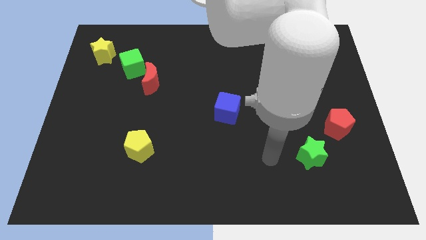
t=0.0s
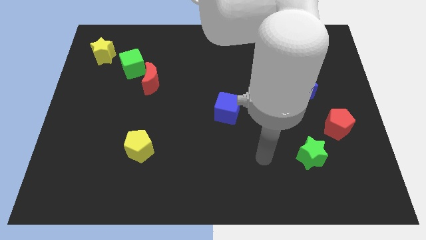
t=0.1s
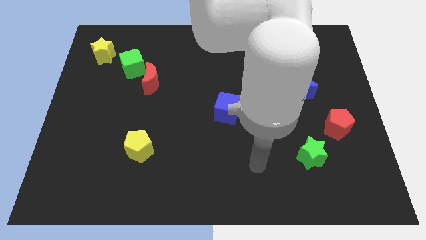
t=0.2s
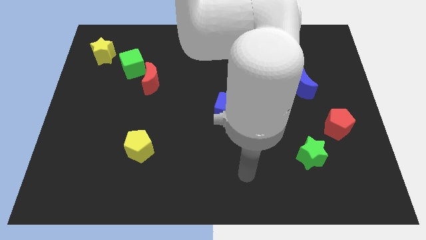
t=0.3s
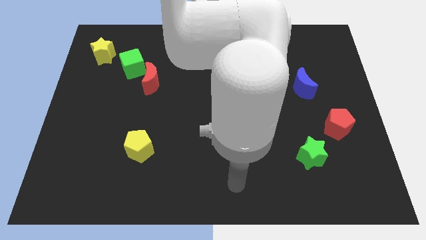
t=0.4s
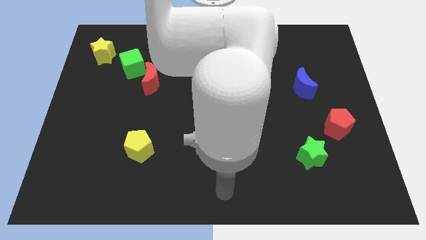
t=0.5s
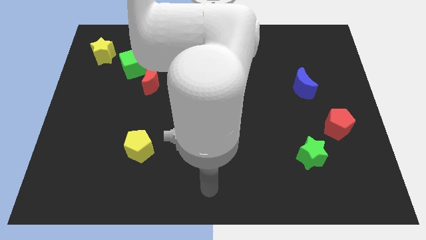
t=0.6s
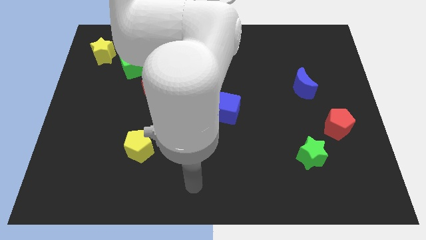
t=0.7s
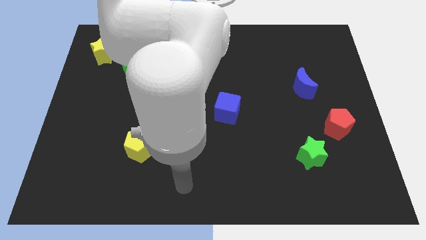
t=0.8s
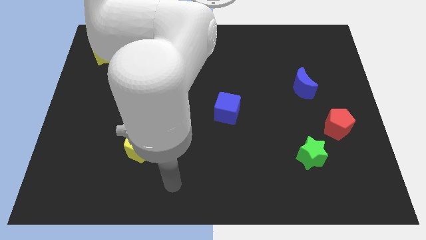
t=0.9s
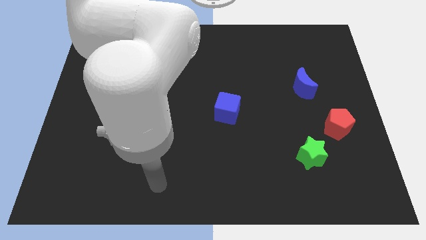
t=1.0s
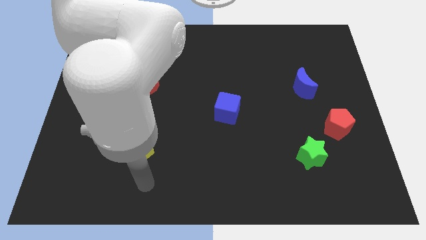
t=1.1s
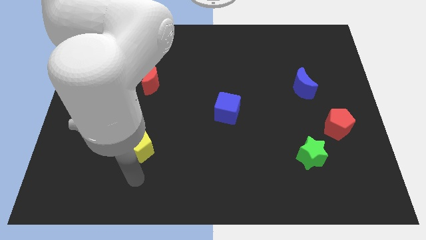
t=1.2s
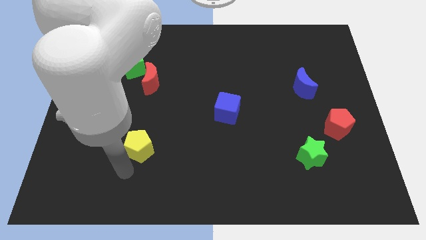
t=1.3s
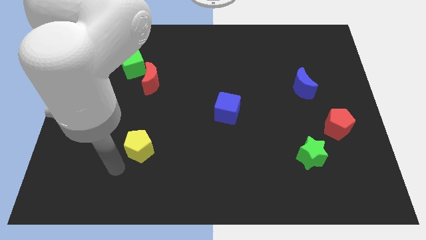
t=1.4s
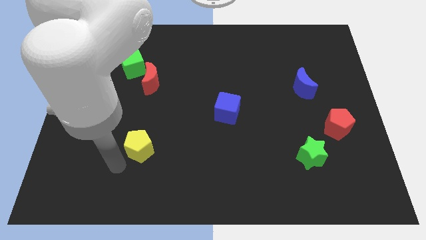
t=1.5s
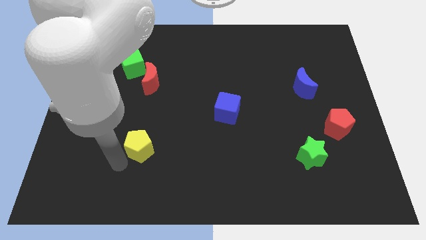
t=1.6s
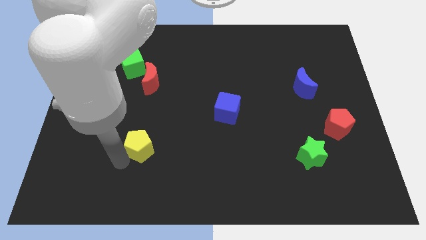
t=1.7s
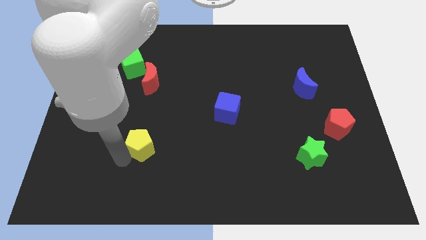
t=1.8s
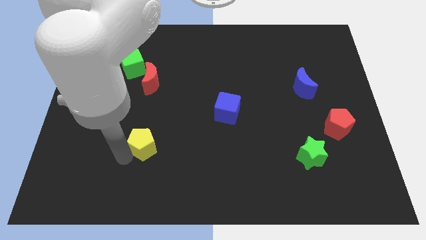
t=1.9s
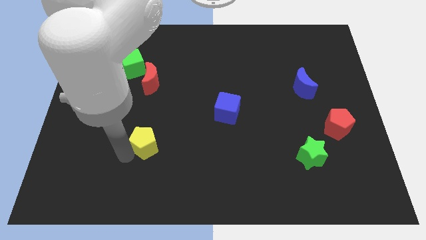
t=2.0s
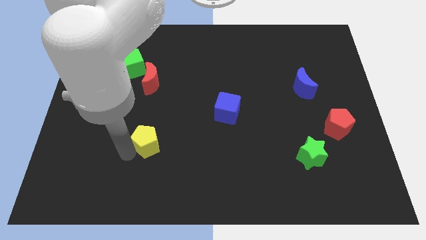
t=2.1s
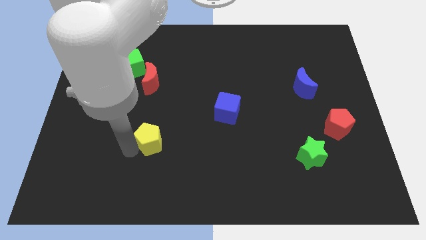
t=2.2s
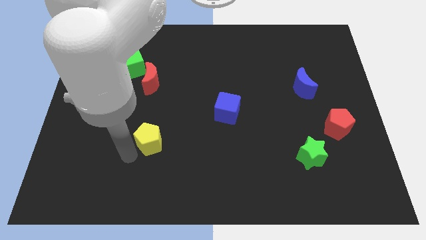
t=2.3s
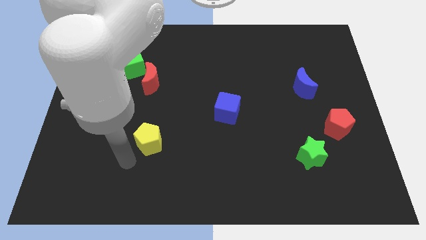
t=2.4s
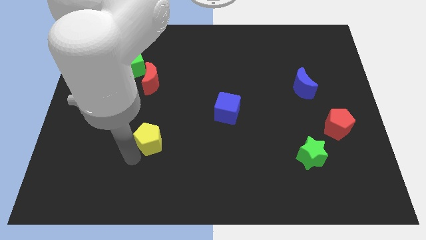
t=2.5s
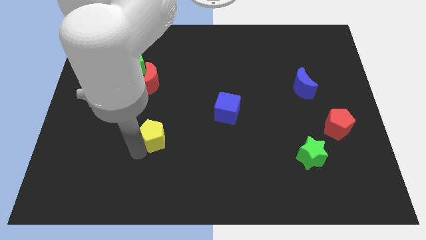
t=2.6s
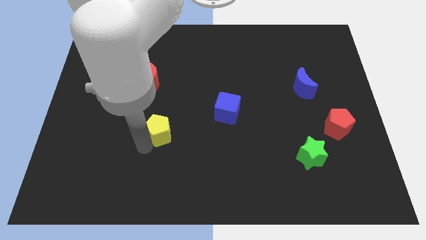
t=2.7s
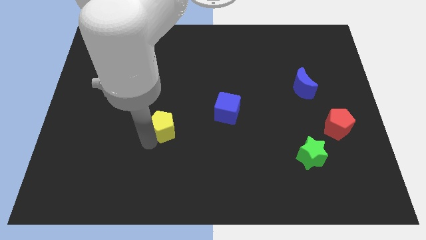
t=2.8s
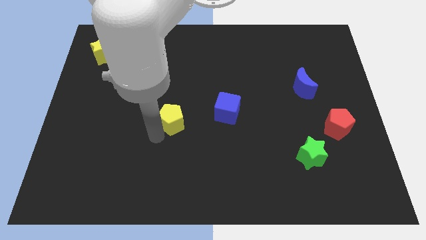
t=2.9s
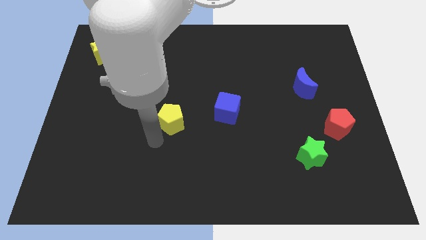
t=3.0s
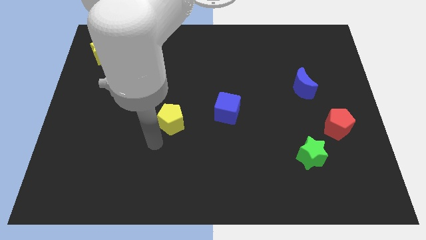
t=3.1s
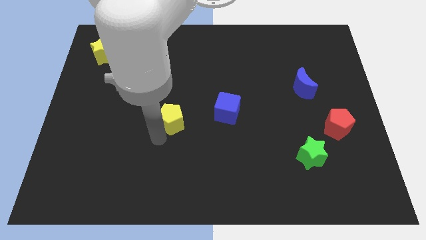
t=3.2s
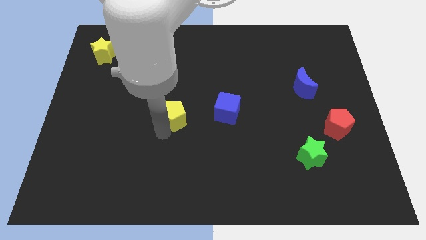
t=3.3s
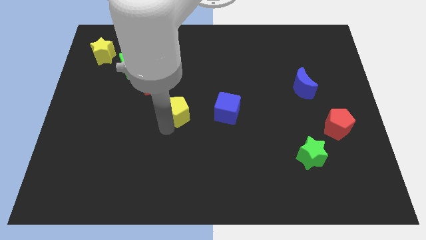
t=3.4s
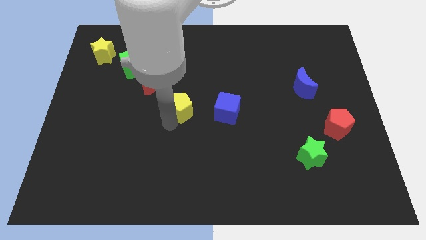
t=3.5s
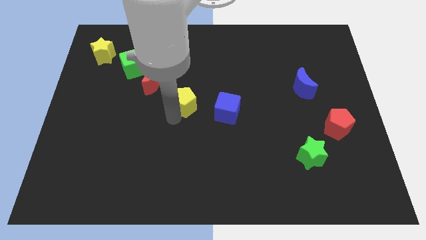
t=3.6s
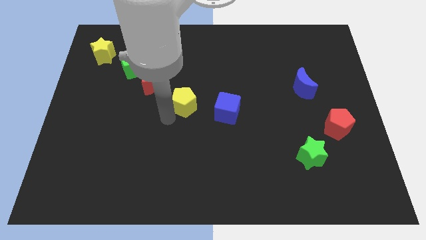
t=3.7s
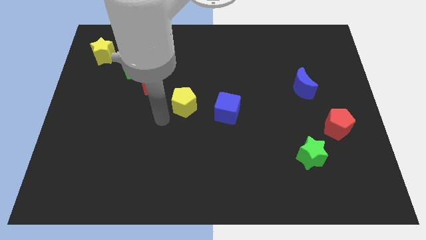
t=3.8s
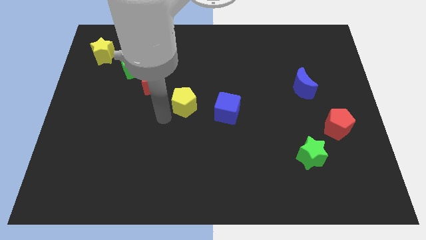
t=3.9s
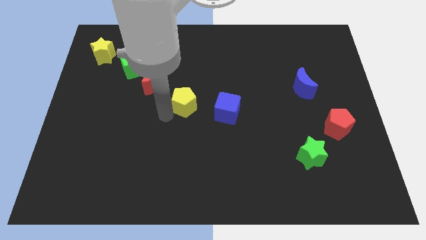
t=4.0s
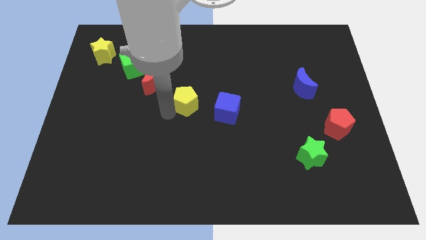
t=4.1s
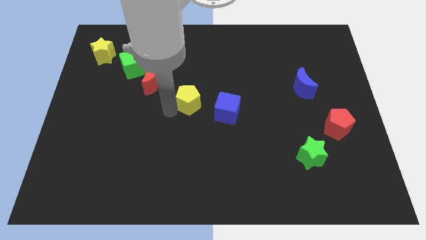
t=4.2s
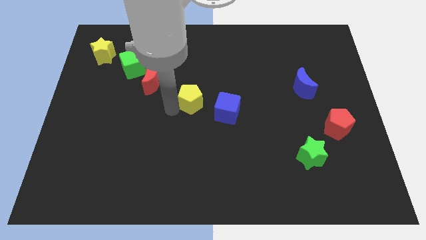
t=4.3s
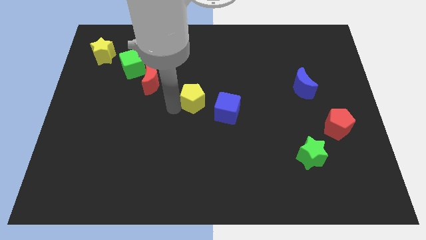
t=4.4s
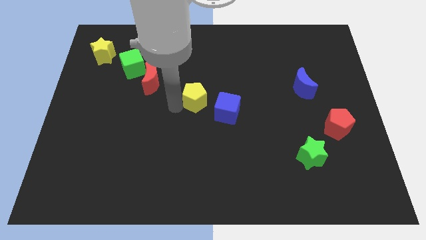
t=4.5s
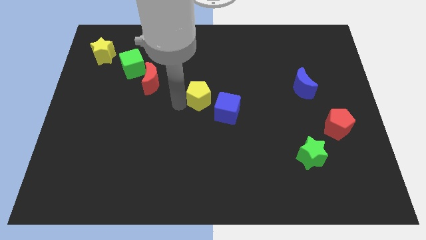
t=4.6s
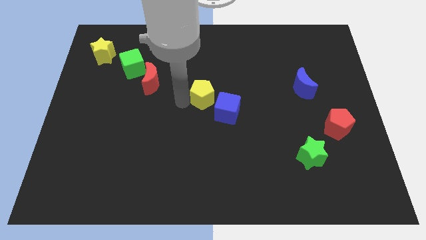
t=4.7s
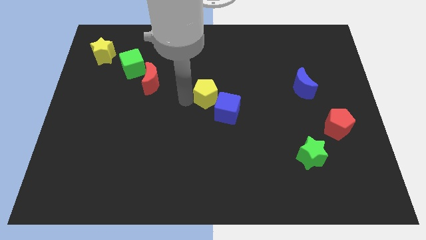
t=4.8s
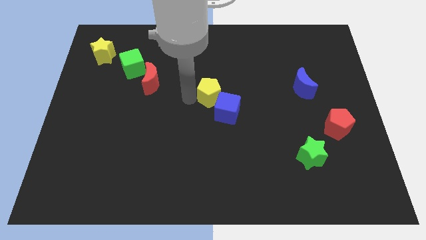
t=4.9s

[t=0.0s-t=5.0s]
move the yellow pentagon to the top of the blue cube

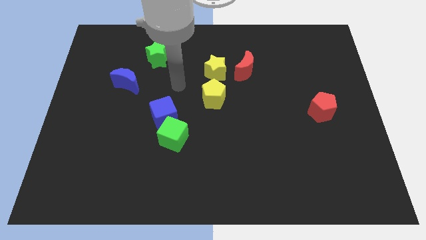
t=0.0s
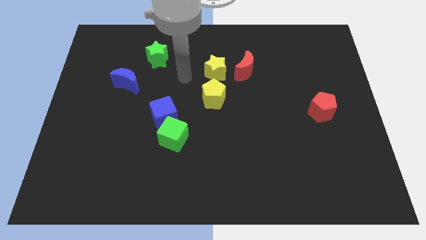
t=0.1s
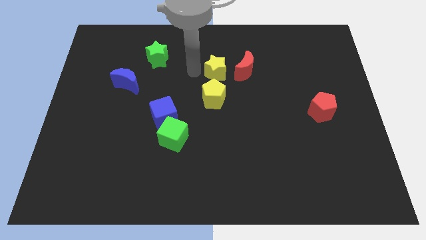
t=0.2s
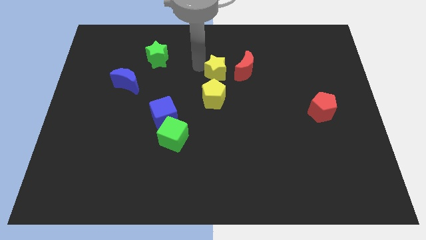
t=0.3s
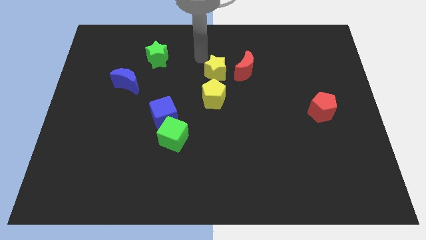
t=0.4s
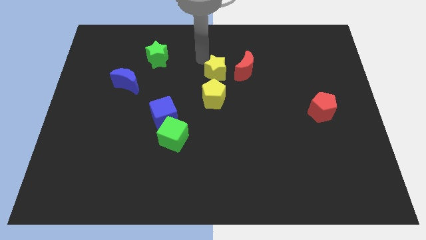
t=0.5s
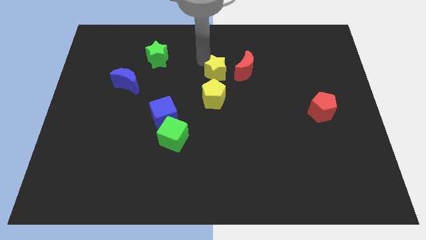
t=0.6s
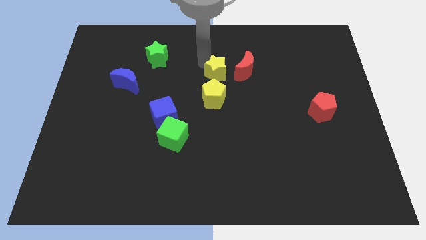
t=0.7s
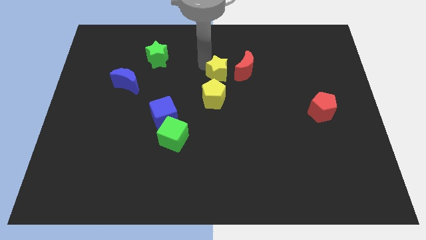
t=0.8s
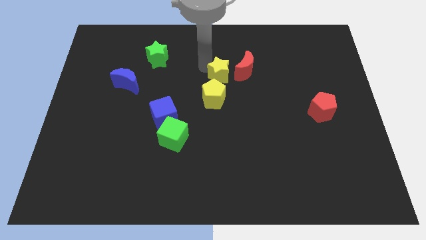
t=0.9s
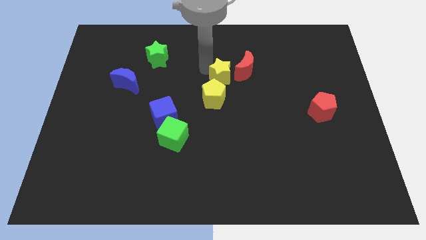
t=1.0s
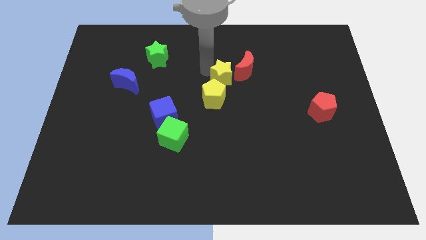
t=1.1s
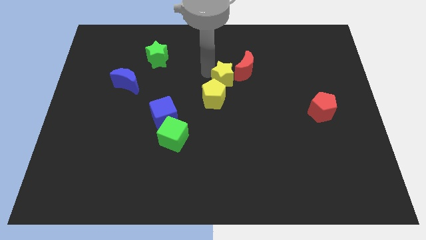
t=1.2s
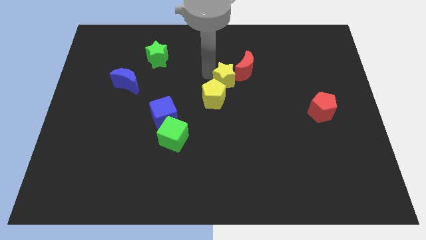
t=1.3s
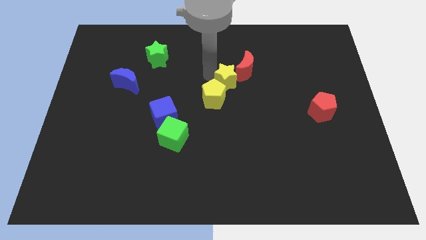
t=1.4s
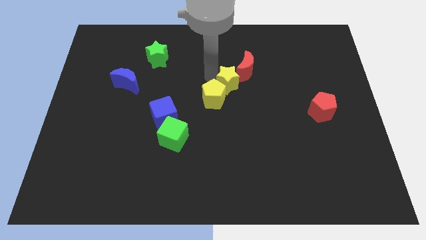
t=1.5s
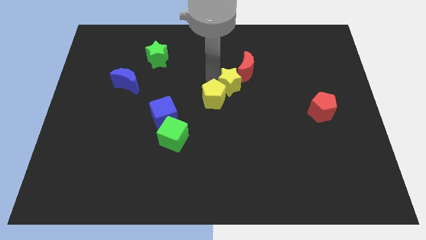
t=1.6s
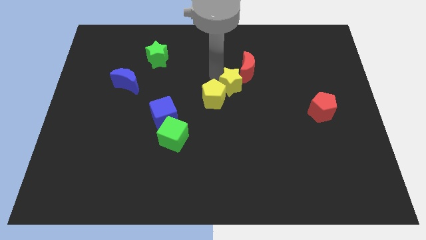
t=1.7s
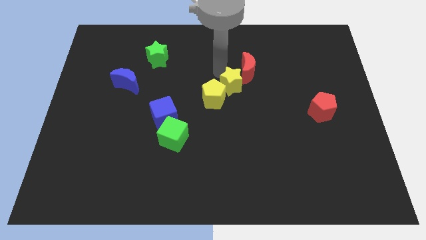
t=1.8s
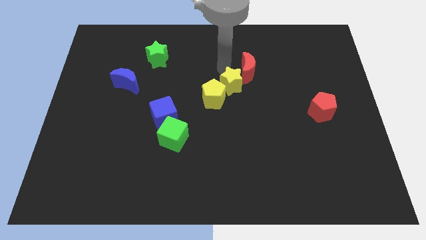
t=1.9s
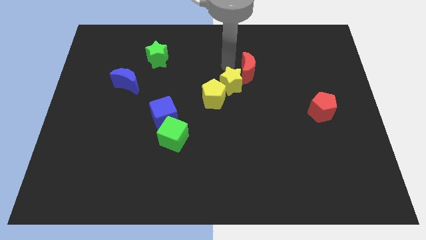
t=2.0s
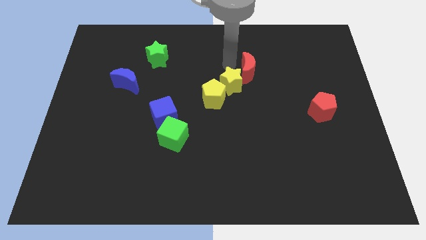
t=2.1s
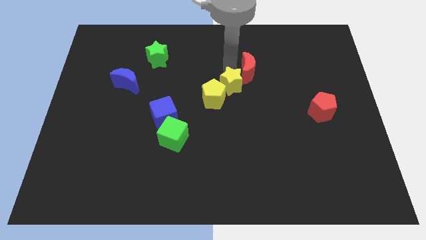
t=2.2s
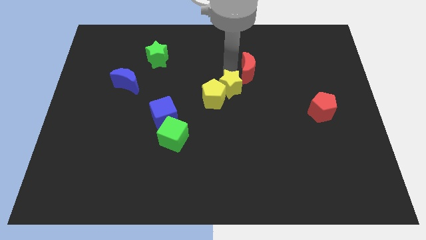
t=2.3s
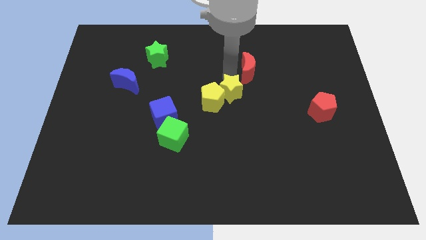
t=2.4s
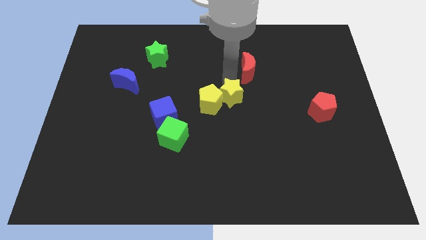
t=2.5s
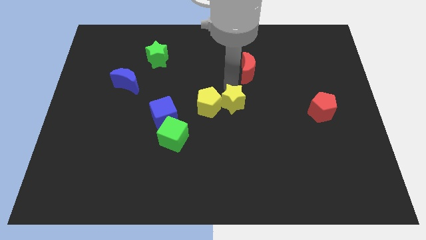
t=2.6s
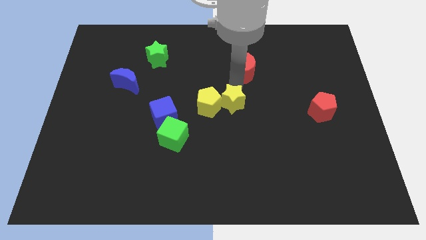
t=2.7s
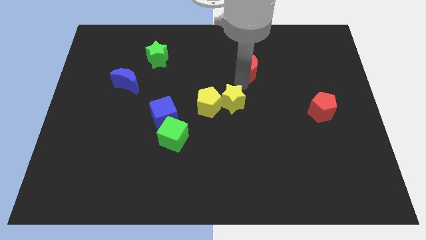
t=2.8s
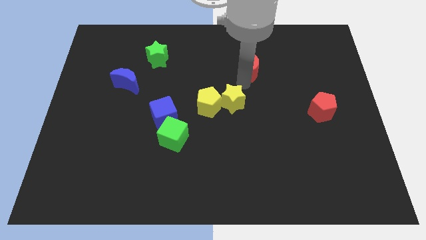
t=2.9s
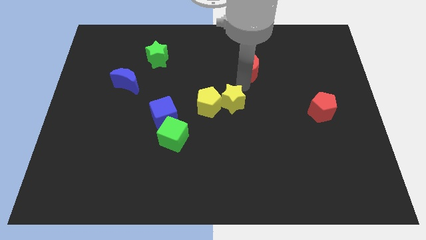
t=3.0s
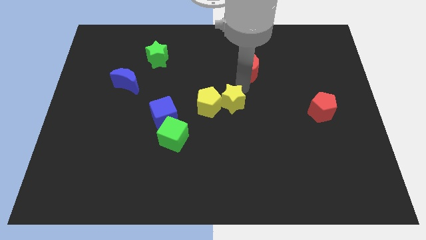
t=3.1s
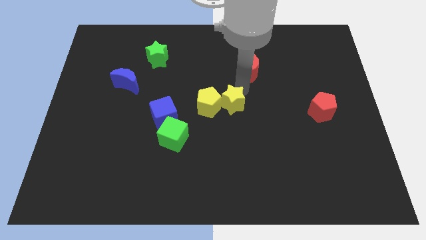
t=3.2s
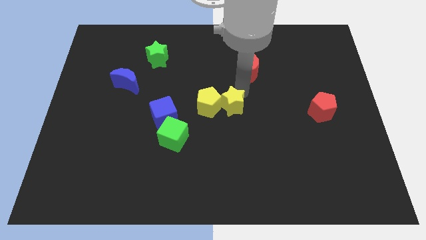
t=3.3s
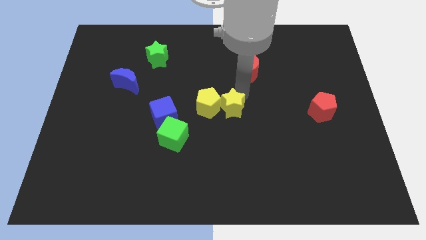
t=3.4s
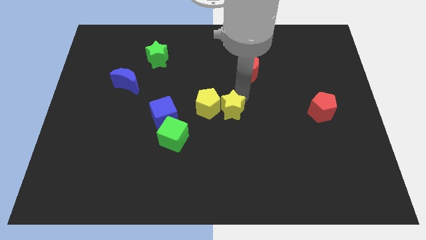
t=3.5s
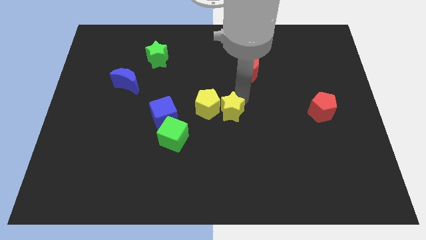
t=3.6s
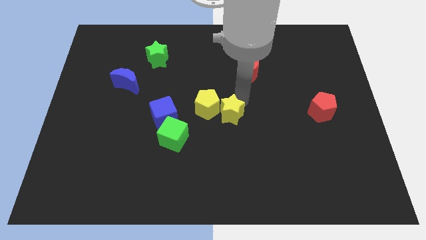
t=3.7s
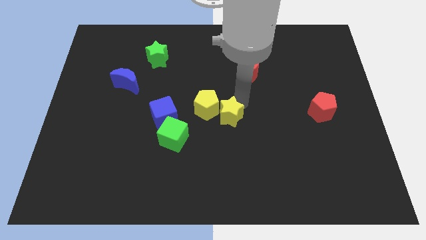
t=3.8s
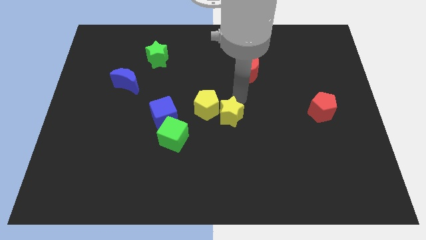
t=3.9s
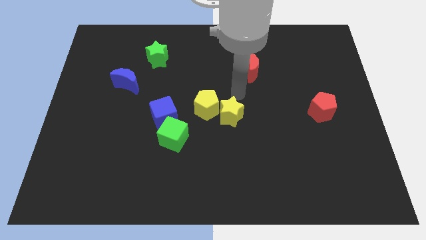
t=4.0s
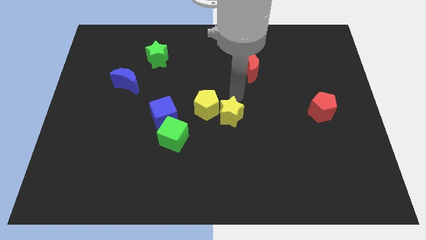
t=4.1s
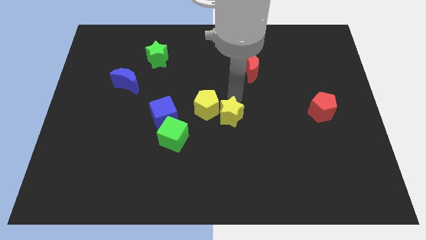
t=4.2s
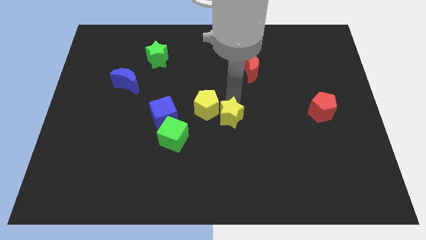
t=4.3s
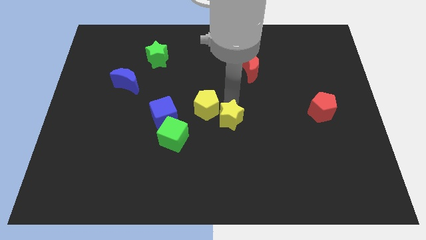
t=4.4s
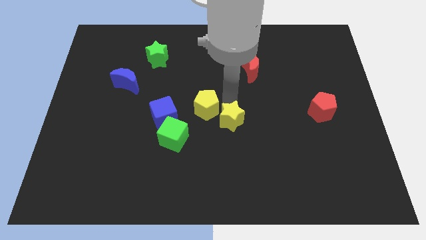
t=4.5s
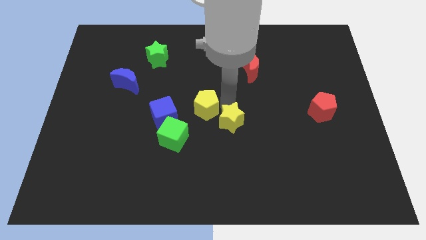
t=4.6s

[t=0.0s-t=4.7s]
push the yellow star right of the green cube
